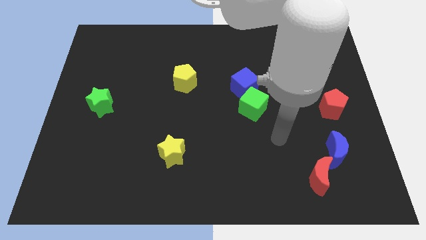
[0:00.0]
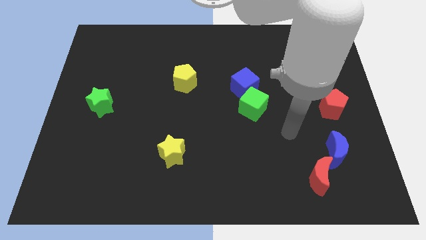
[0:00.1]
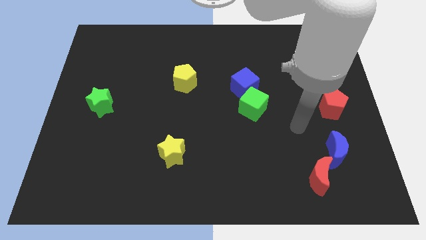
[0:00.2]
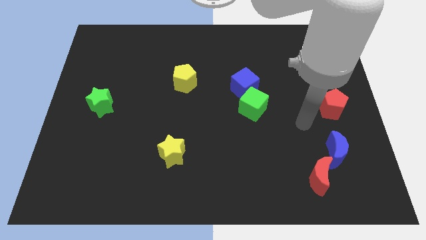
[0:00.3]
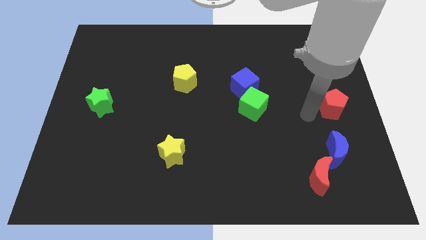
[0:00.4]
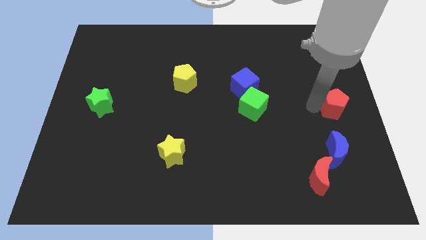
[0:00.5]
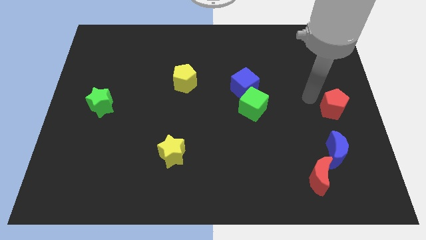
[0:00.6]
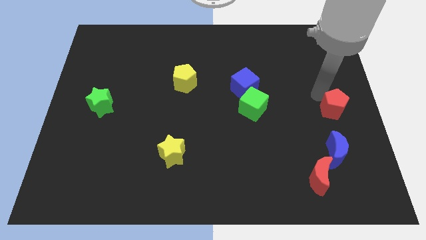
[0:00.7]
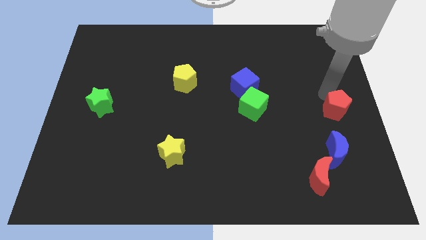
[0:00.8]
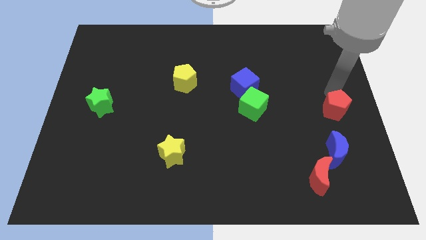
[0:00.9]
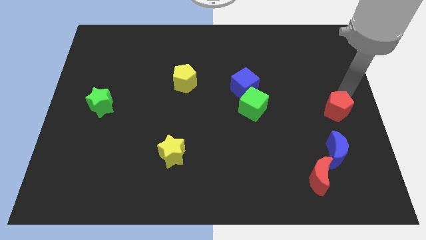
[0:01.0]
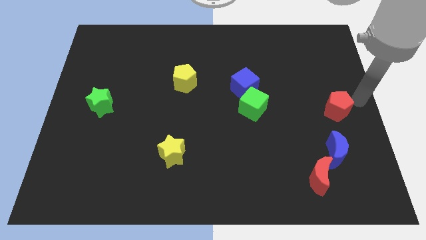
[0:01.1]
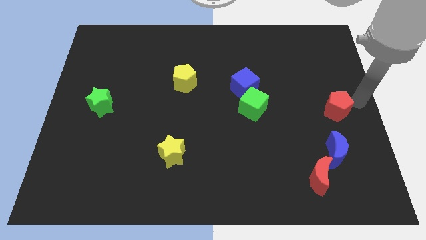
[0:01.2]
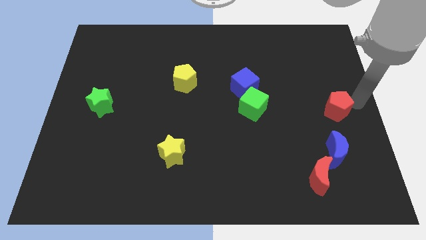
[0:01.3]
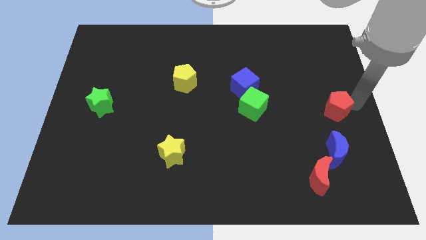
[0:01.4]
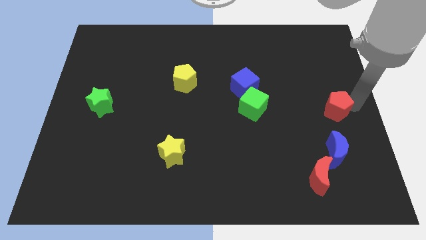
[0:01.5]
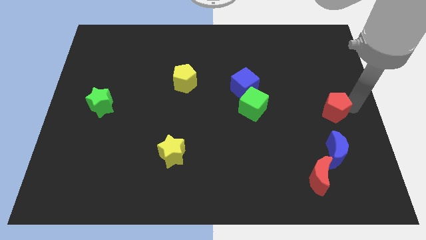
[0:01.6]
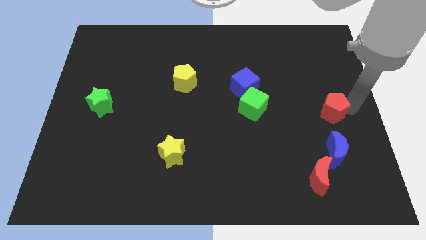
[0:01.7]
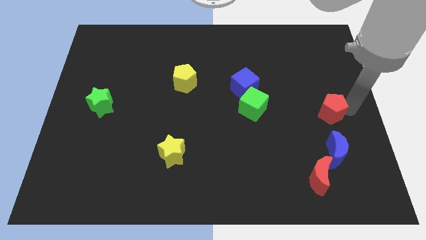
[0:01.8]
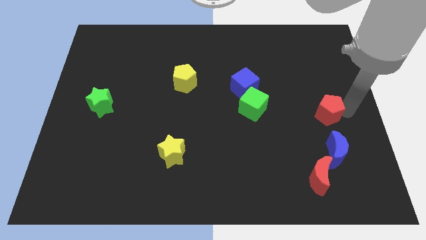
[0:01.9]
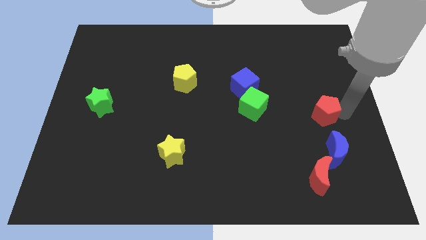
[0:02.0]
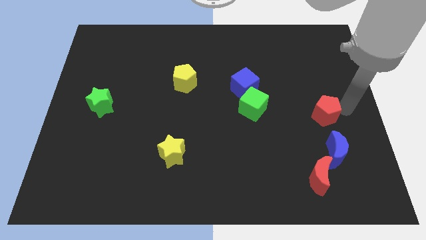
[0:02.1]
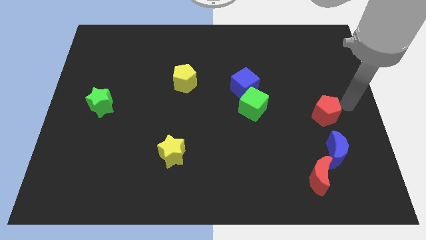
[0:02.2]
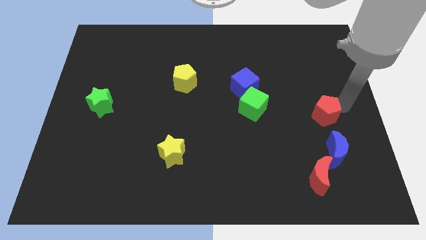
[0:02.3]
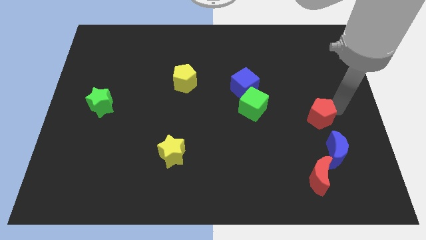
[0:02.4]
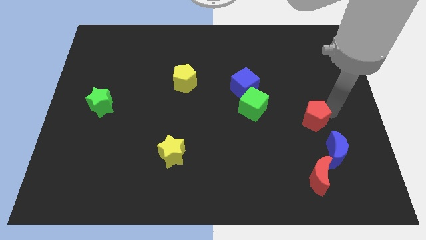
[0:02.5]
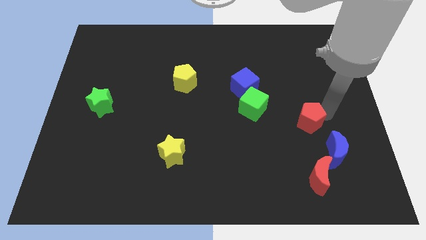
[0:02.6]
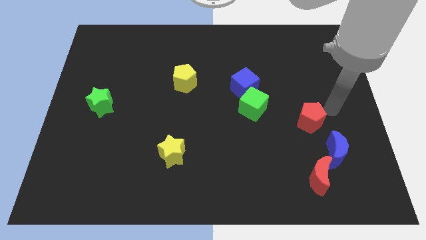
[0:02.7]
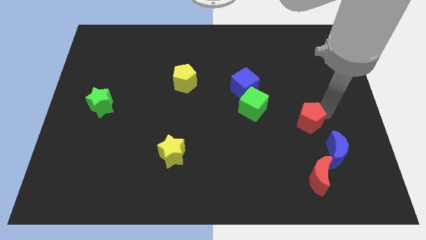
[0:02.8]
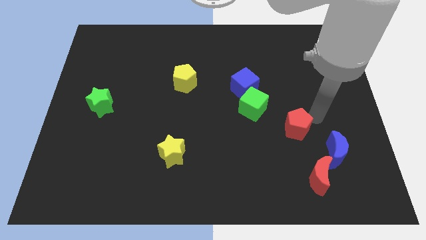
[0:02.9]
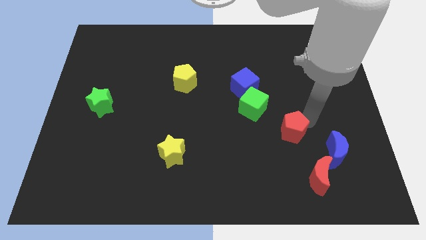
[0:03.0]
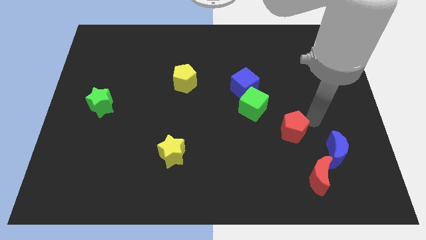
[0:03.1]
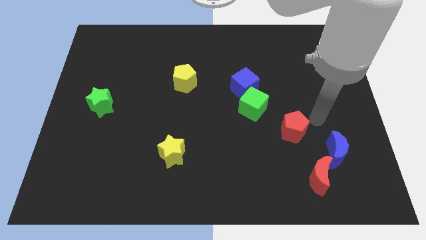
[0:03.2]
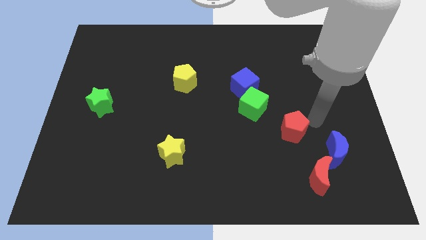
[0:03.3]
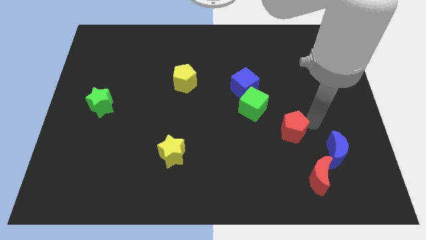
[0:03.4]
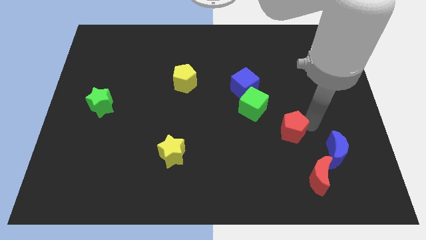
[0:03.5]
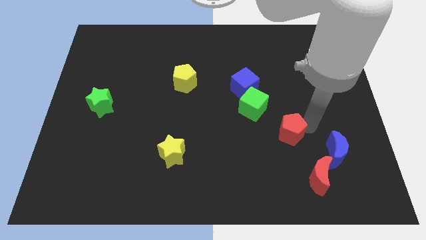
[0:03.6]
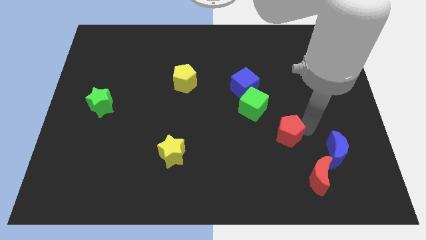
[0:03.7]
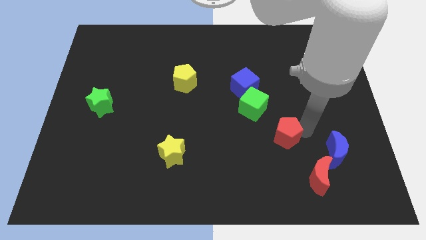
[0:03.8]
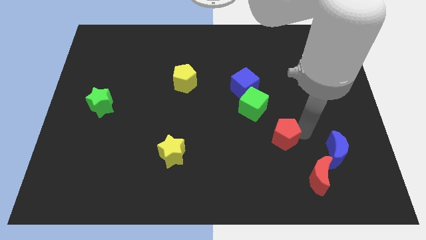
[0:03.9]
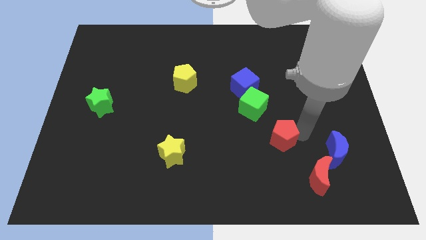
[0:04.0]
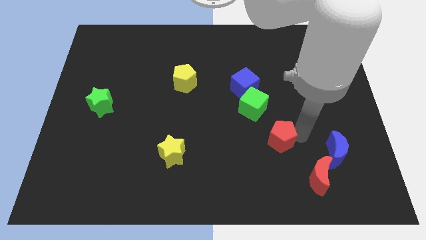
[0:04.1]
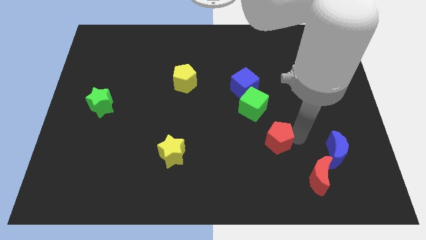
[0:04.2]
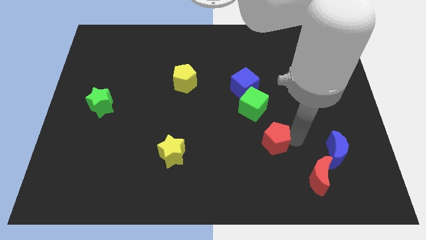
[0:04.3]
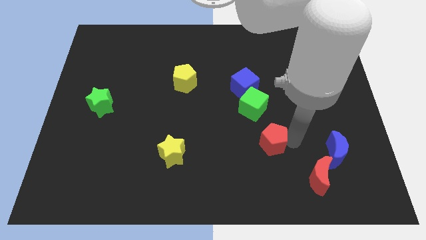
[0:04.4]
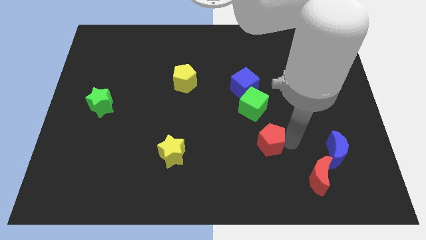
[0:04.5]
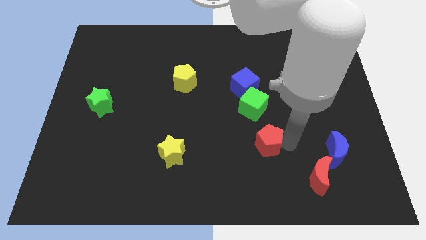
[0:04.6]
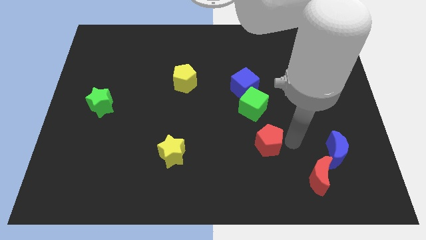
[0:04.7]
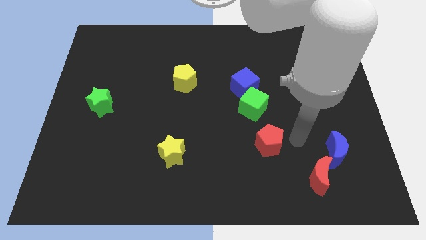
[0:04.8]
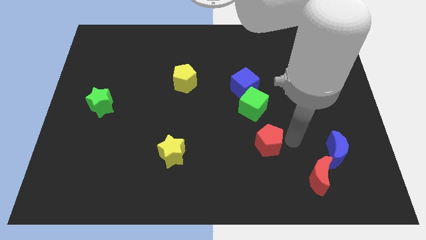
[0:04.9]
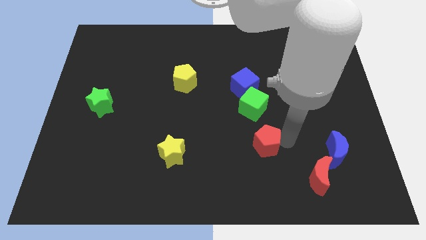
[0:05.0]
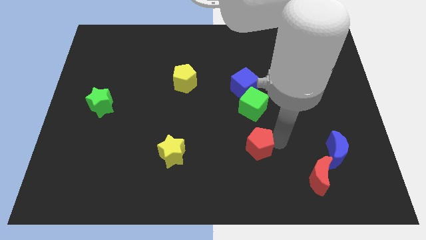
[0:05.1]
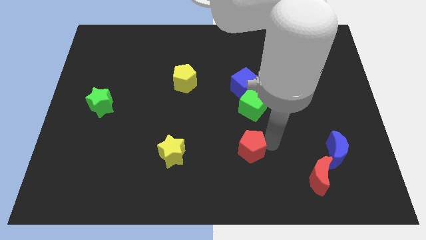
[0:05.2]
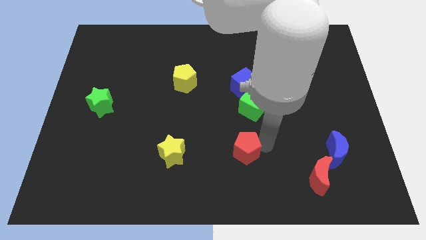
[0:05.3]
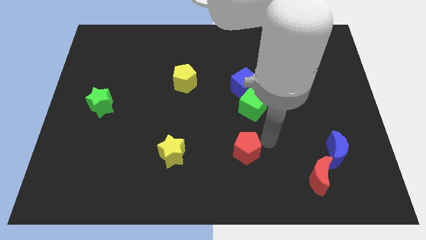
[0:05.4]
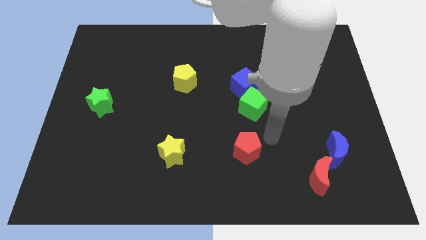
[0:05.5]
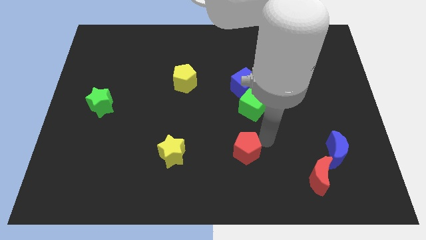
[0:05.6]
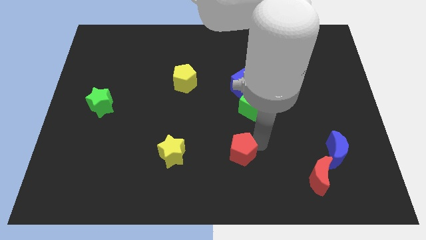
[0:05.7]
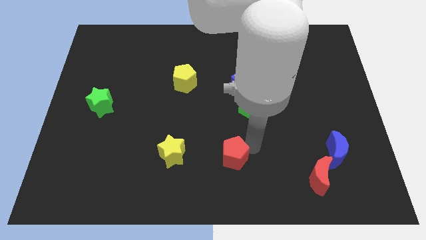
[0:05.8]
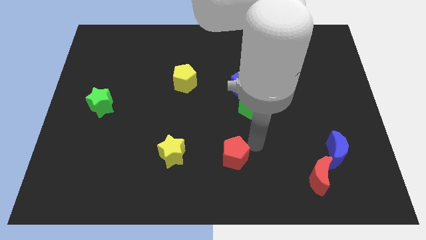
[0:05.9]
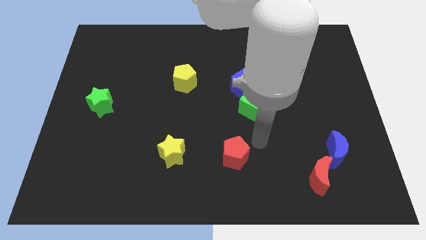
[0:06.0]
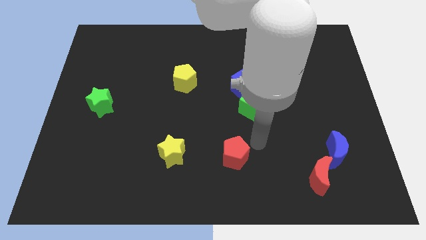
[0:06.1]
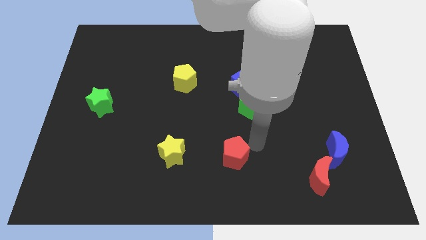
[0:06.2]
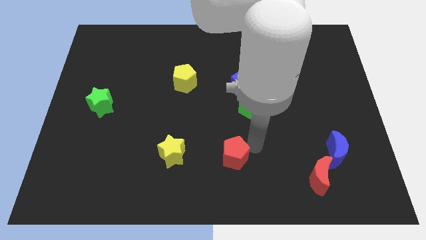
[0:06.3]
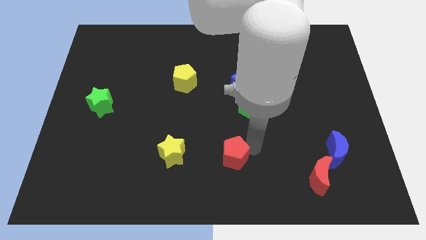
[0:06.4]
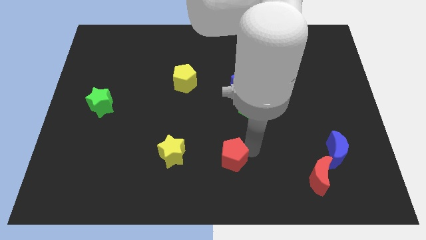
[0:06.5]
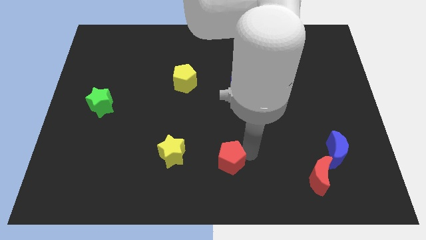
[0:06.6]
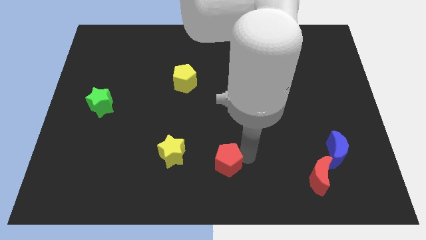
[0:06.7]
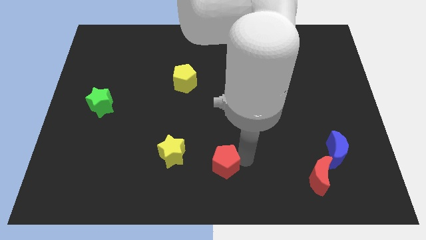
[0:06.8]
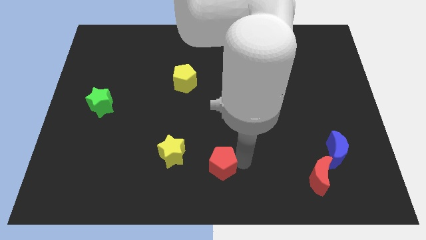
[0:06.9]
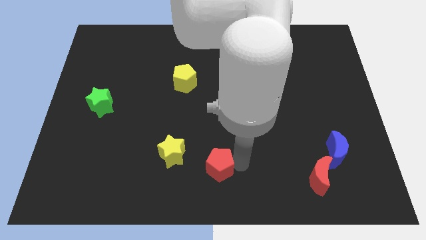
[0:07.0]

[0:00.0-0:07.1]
move the red pentagon diagonally down and to the right of the yellow star
